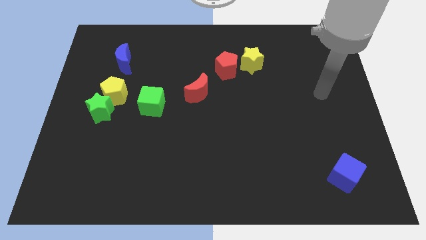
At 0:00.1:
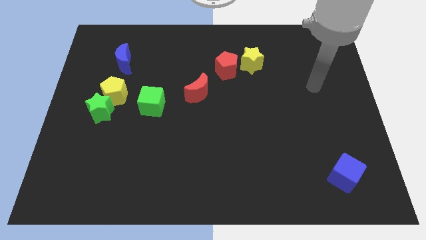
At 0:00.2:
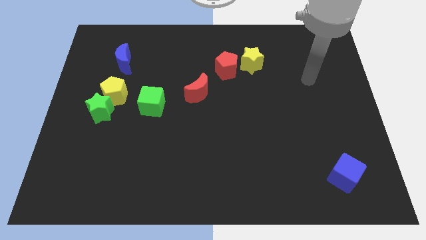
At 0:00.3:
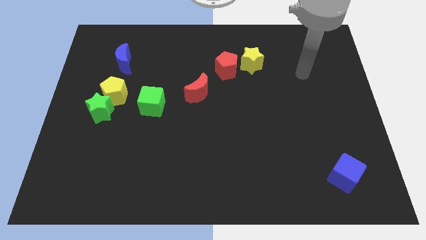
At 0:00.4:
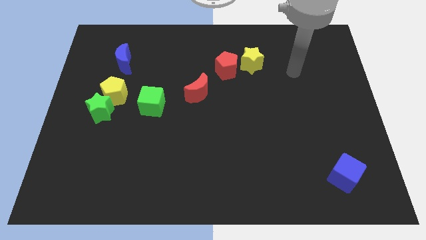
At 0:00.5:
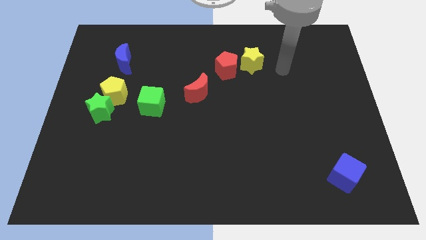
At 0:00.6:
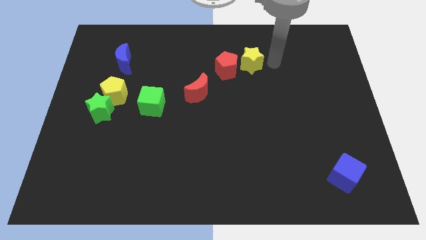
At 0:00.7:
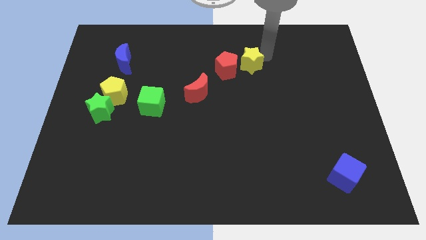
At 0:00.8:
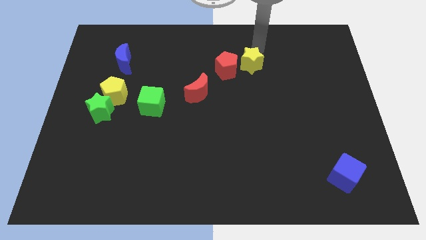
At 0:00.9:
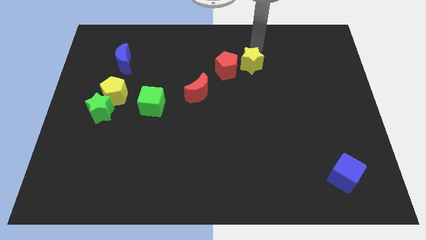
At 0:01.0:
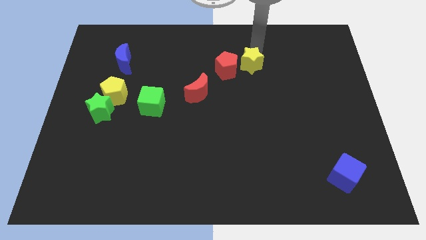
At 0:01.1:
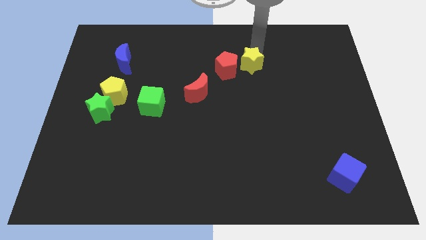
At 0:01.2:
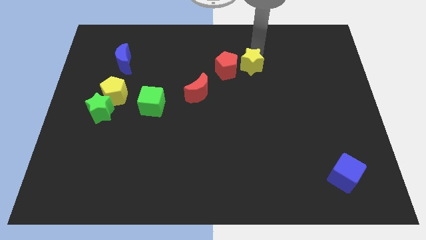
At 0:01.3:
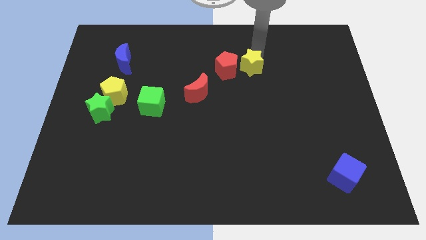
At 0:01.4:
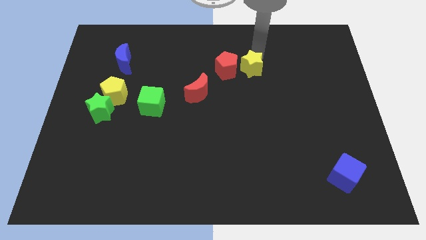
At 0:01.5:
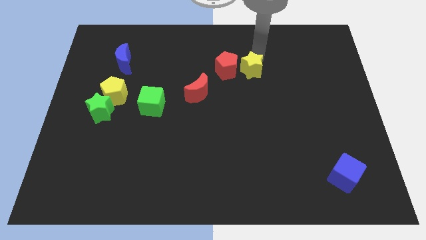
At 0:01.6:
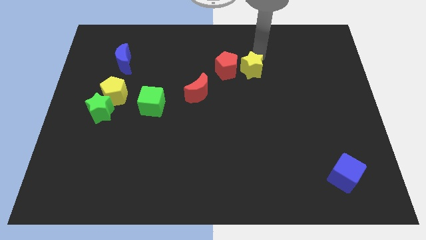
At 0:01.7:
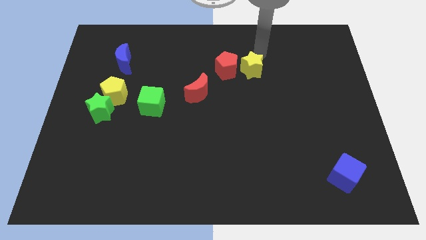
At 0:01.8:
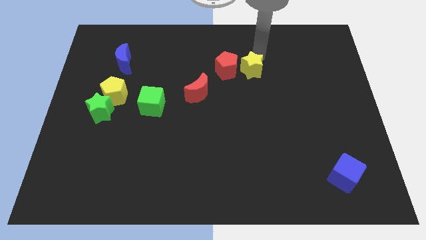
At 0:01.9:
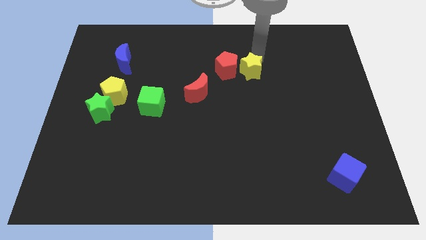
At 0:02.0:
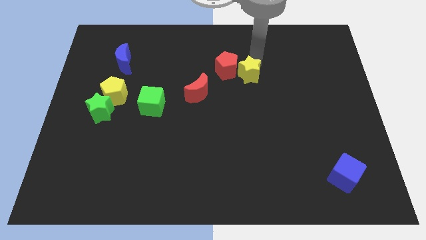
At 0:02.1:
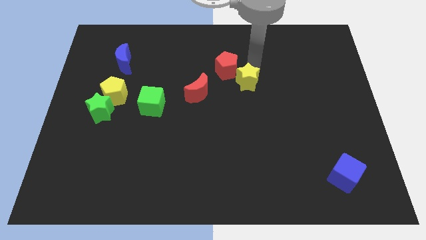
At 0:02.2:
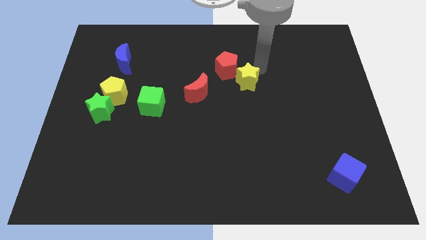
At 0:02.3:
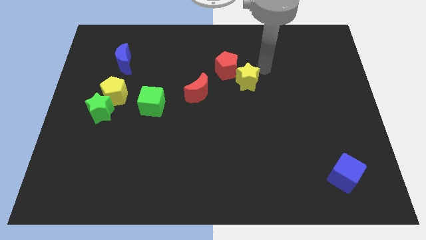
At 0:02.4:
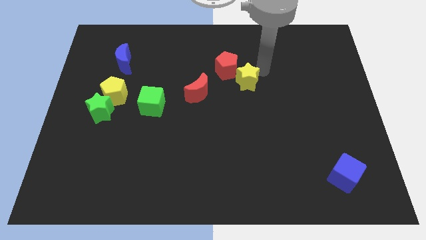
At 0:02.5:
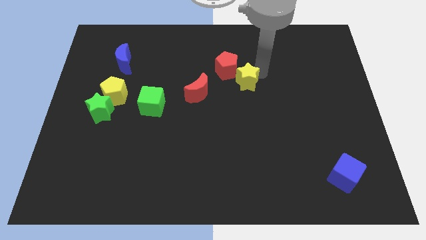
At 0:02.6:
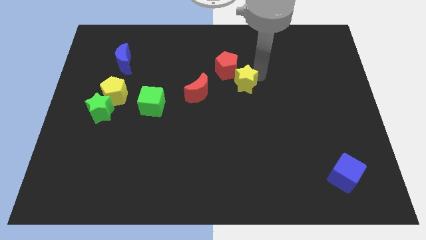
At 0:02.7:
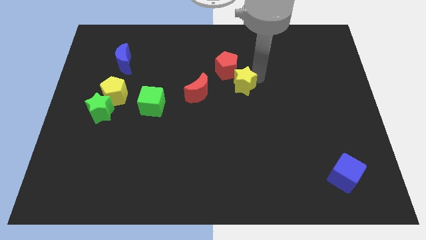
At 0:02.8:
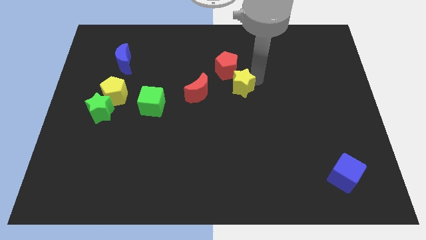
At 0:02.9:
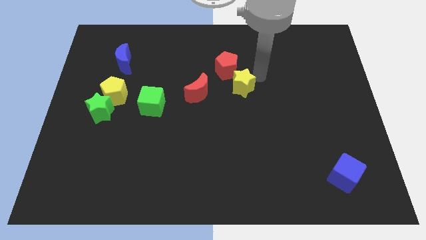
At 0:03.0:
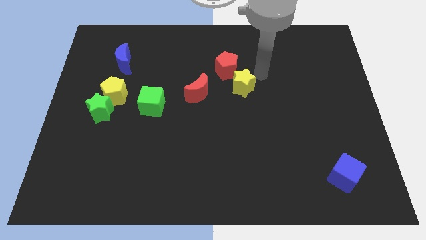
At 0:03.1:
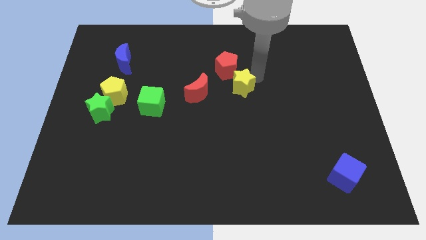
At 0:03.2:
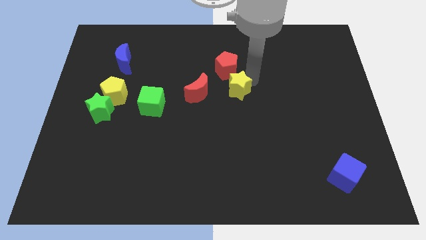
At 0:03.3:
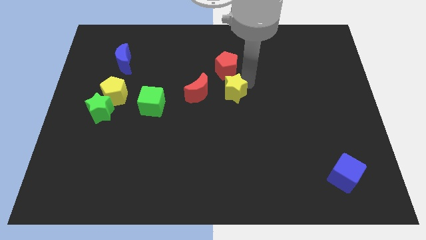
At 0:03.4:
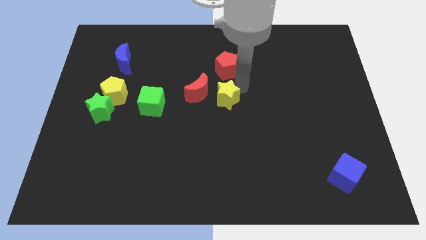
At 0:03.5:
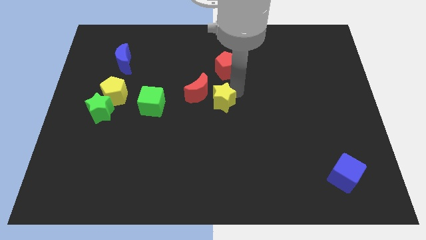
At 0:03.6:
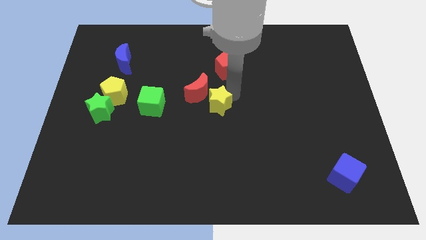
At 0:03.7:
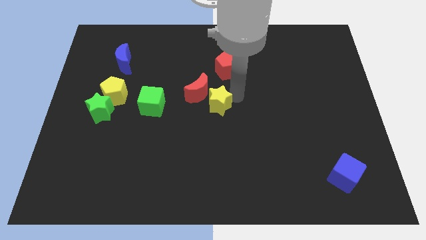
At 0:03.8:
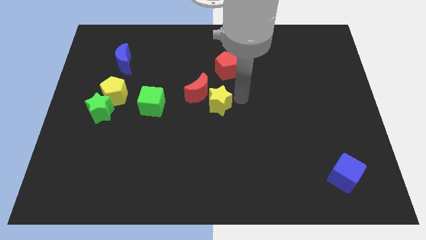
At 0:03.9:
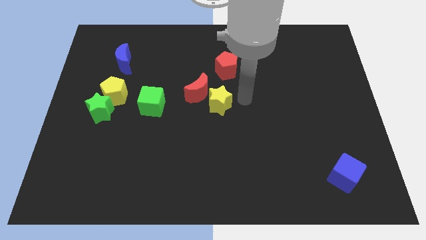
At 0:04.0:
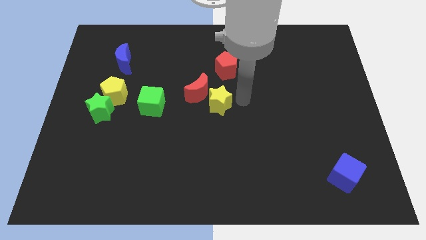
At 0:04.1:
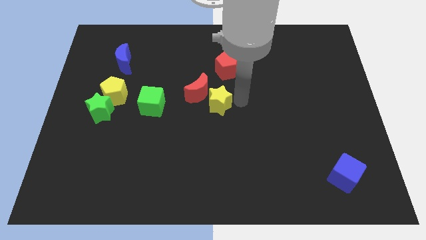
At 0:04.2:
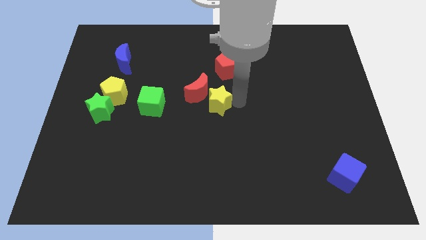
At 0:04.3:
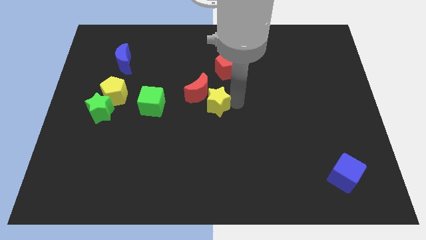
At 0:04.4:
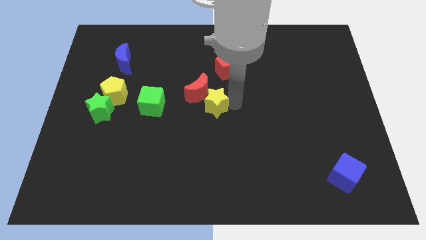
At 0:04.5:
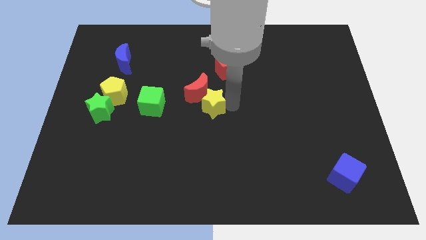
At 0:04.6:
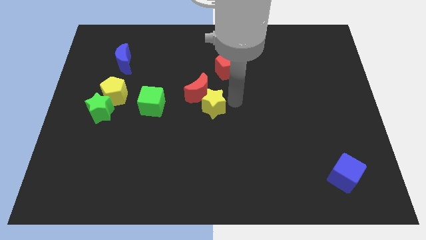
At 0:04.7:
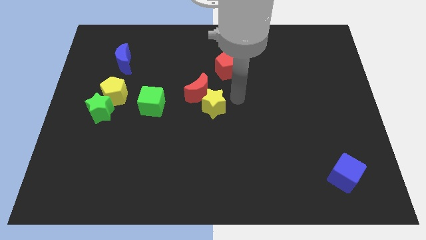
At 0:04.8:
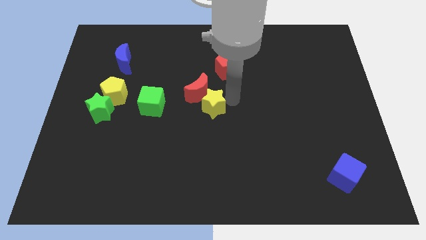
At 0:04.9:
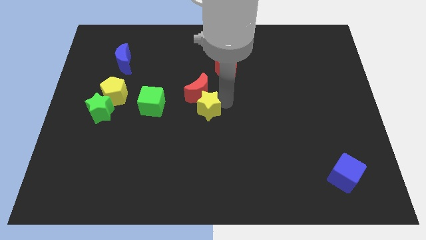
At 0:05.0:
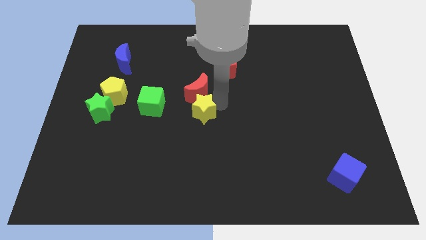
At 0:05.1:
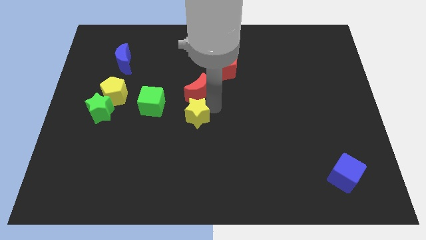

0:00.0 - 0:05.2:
push the yellow star downwards and left

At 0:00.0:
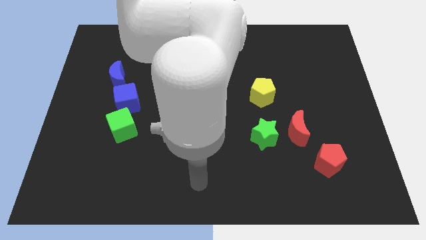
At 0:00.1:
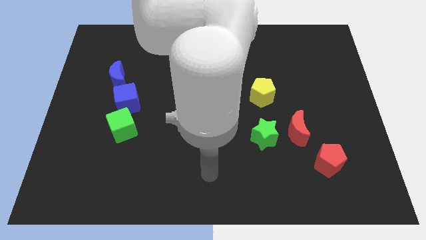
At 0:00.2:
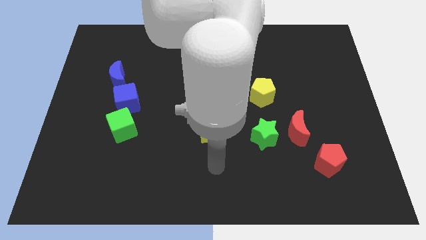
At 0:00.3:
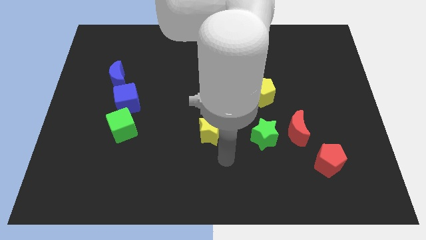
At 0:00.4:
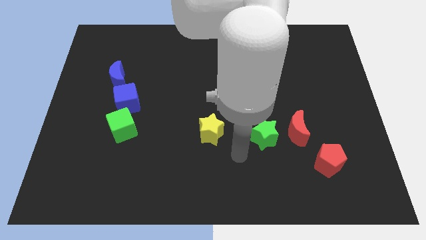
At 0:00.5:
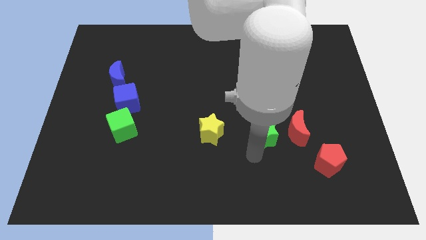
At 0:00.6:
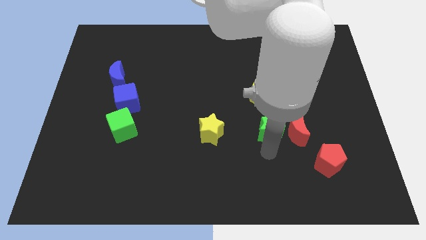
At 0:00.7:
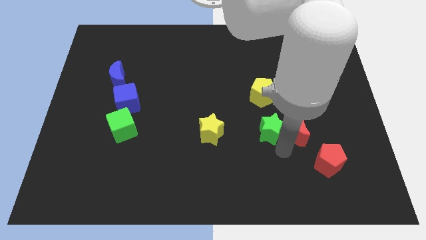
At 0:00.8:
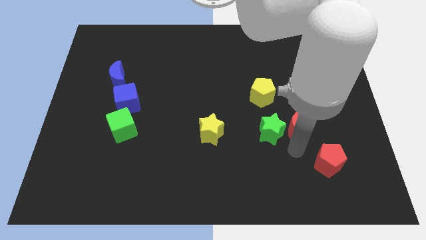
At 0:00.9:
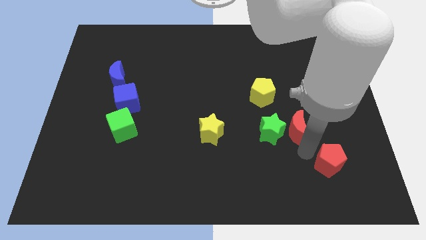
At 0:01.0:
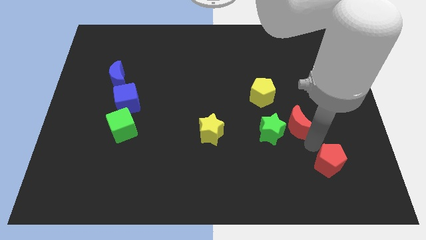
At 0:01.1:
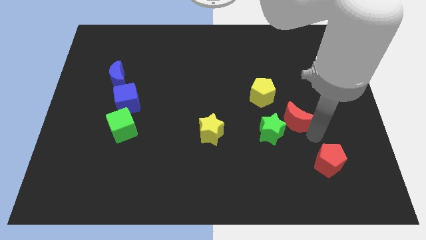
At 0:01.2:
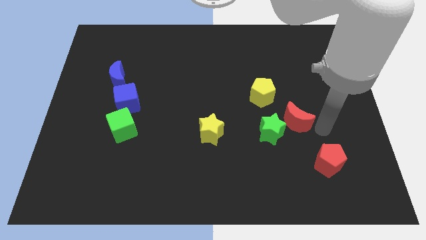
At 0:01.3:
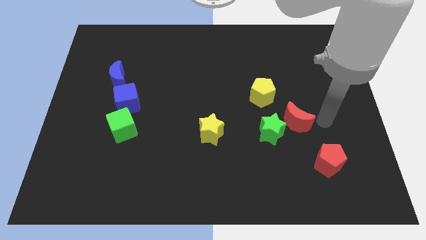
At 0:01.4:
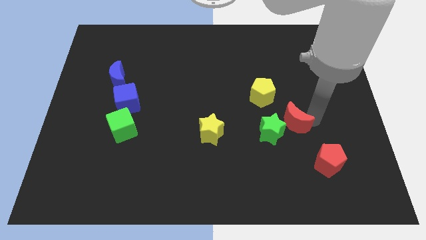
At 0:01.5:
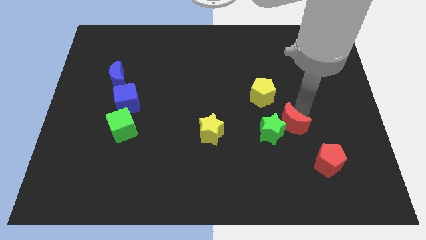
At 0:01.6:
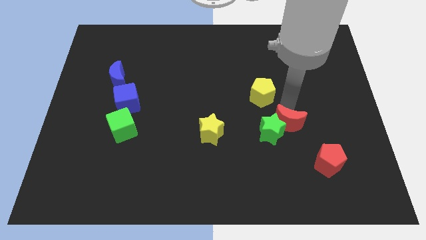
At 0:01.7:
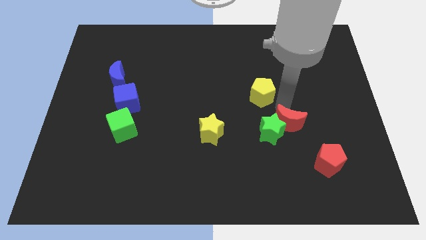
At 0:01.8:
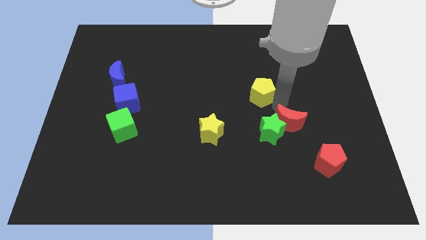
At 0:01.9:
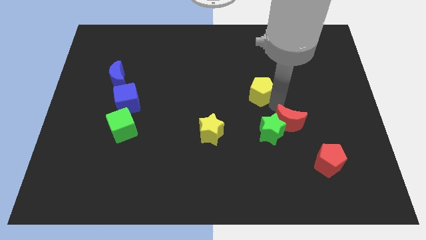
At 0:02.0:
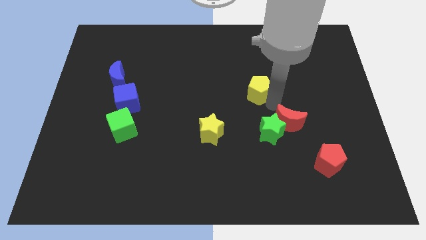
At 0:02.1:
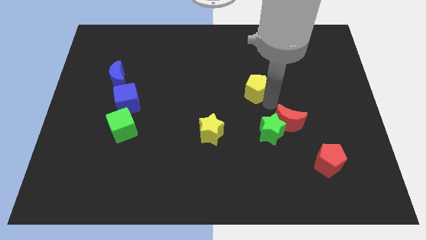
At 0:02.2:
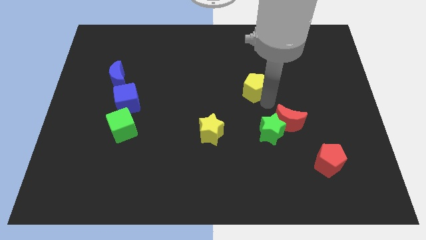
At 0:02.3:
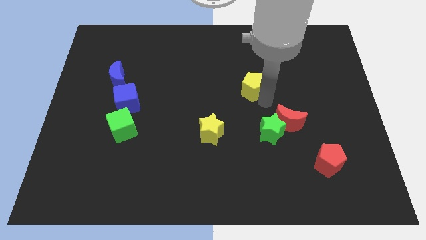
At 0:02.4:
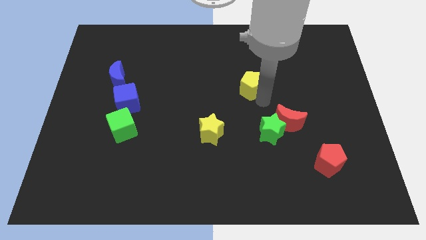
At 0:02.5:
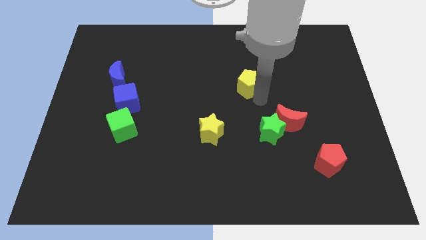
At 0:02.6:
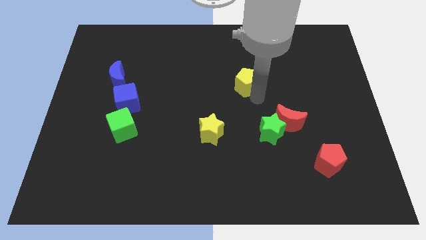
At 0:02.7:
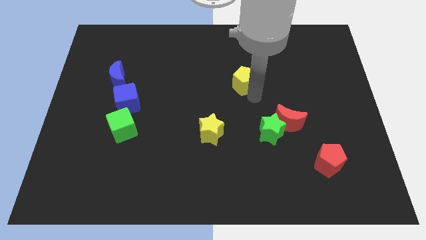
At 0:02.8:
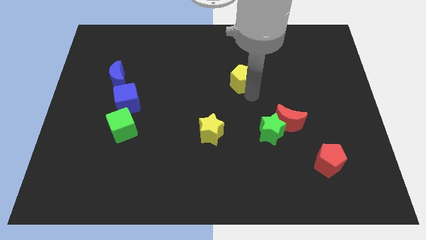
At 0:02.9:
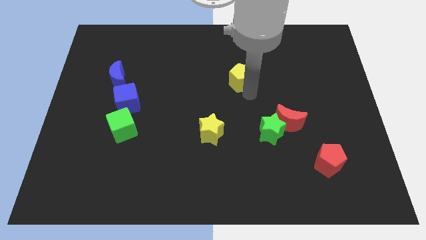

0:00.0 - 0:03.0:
slightly slide the yellow pentagon up and then to the left

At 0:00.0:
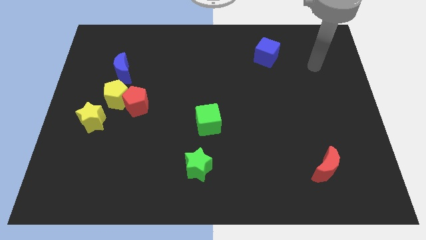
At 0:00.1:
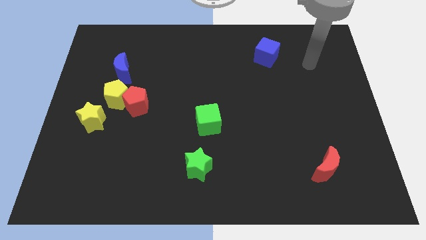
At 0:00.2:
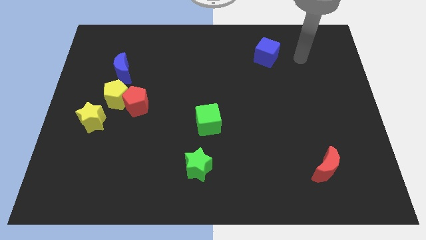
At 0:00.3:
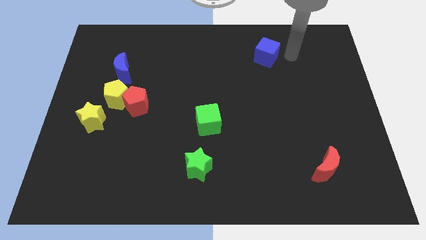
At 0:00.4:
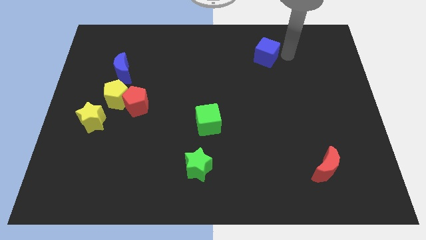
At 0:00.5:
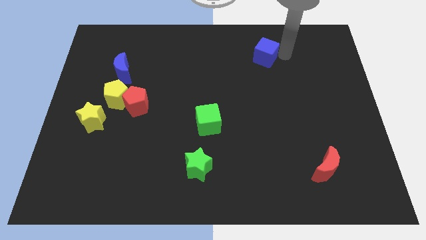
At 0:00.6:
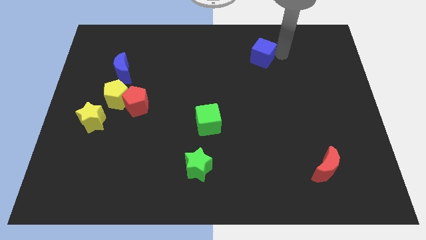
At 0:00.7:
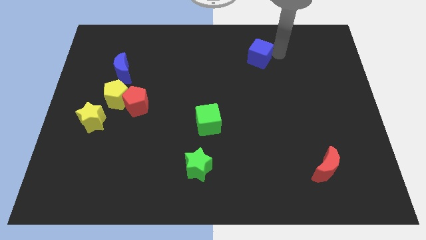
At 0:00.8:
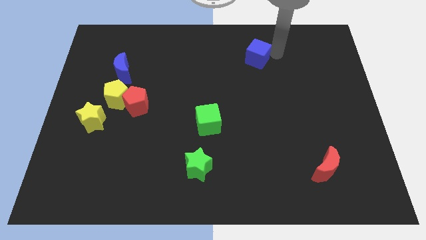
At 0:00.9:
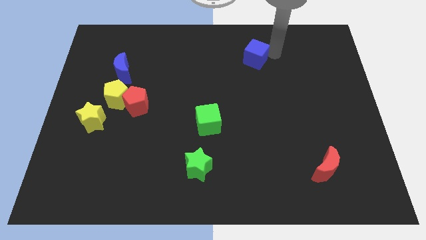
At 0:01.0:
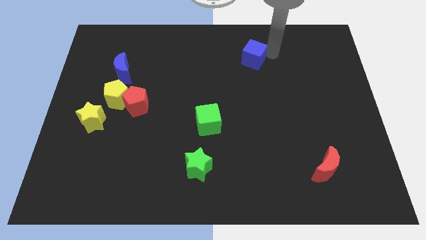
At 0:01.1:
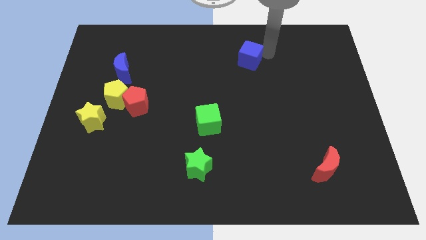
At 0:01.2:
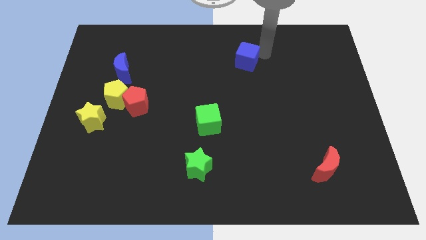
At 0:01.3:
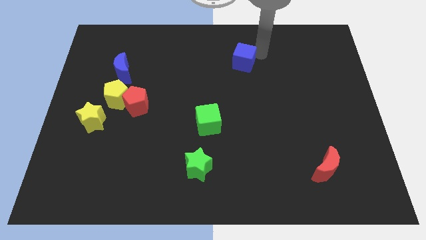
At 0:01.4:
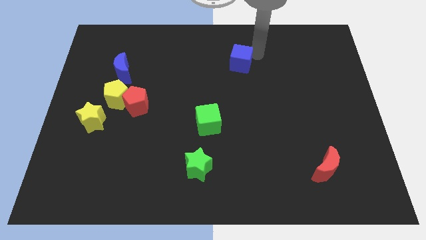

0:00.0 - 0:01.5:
move the blue cube a little to the left
